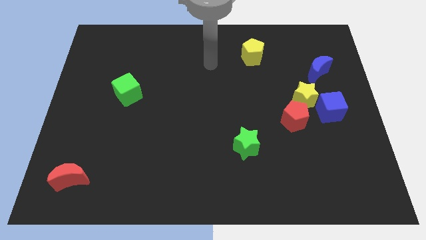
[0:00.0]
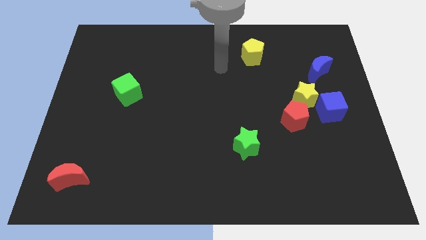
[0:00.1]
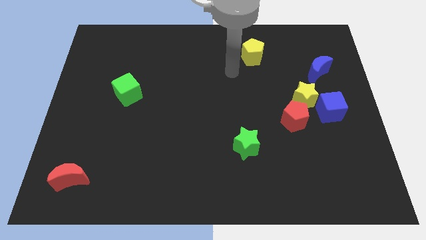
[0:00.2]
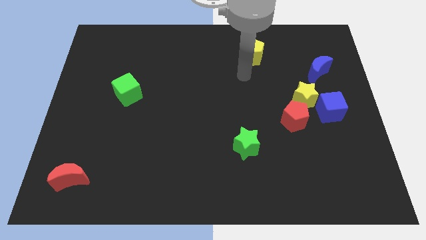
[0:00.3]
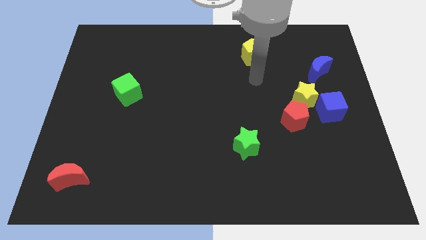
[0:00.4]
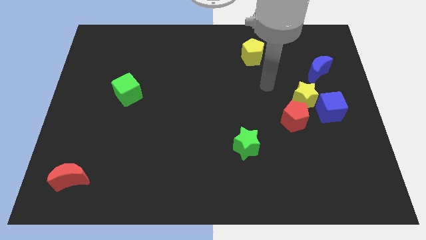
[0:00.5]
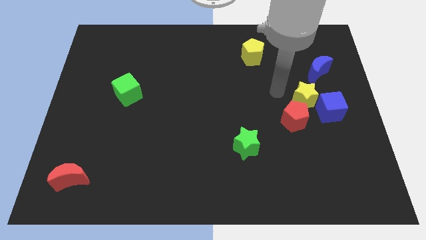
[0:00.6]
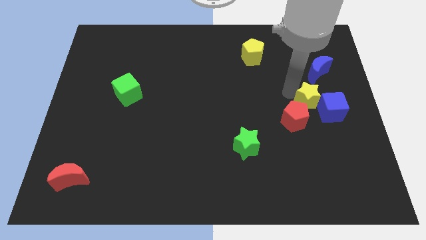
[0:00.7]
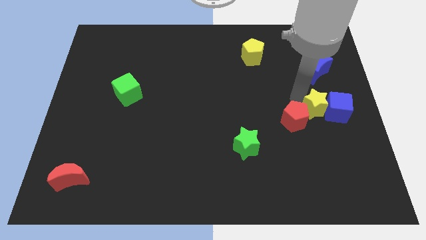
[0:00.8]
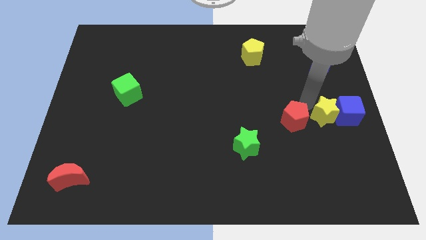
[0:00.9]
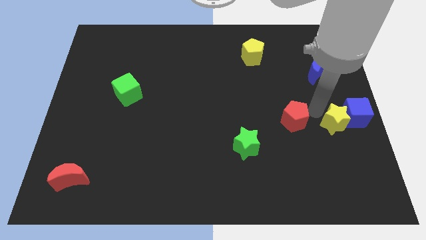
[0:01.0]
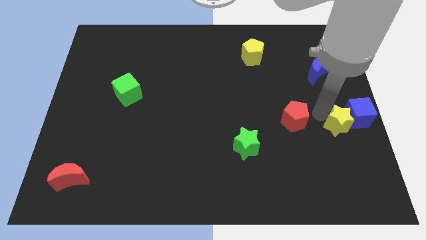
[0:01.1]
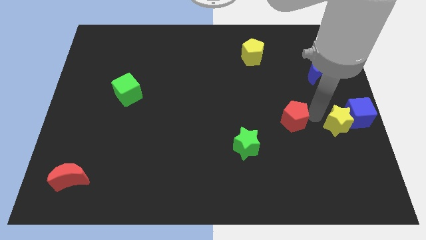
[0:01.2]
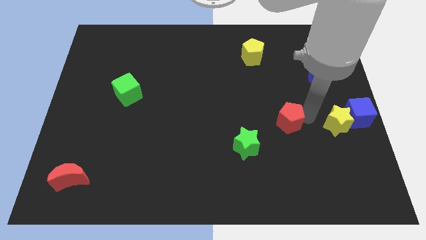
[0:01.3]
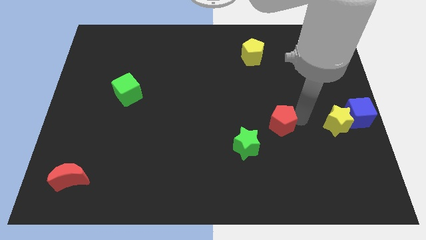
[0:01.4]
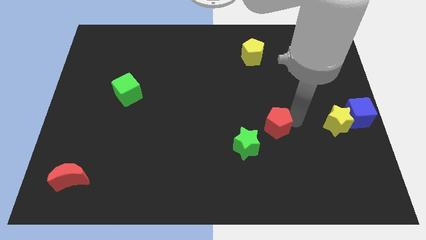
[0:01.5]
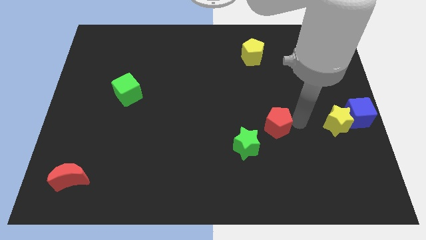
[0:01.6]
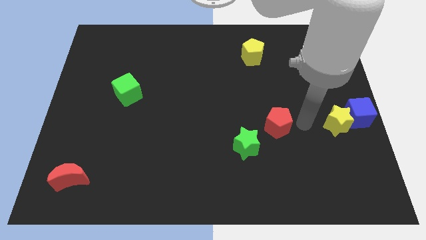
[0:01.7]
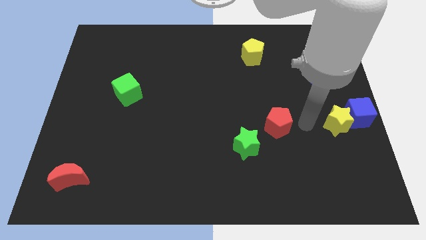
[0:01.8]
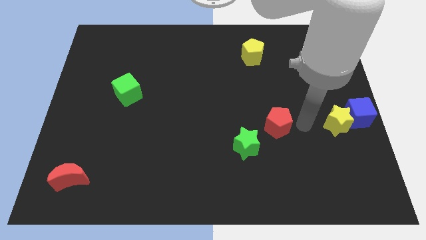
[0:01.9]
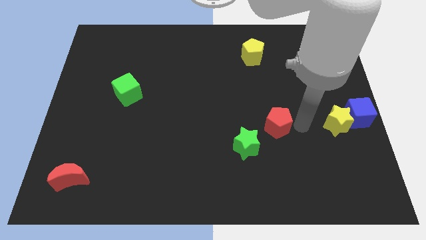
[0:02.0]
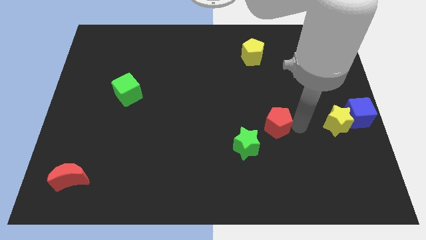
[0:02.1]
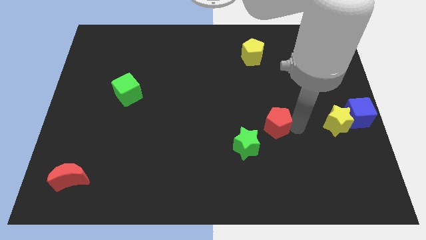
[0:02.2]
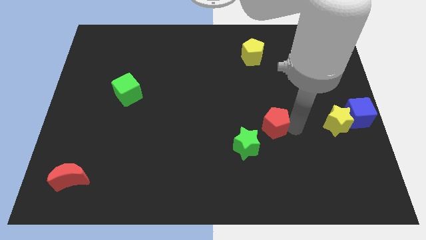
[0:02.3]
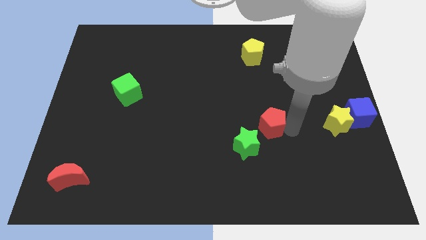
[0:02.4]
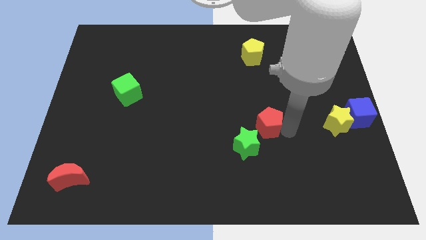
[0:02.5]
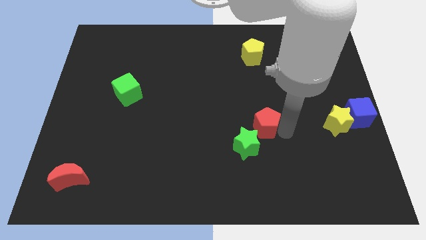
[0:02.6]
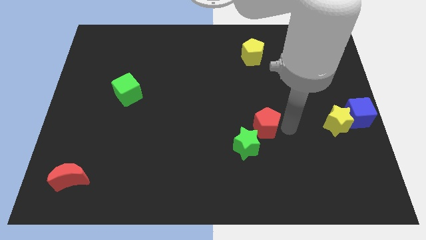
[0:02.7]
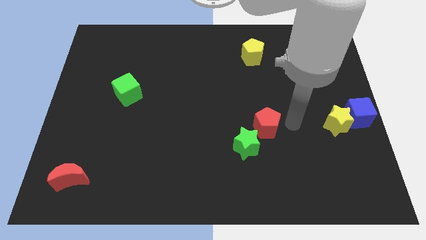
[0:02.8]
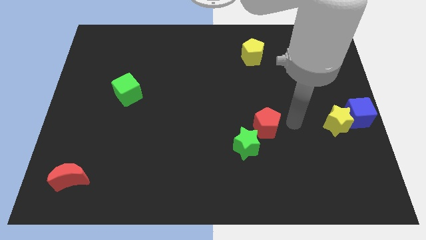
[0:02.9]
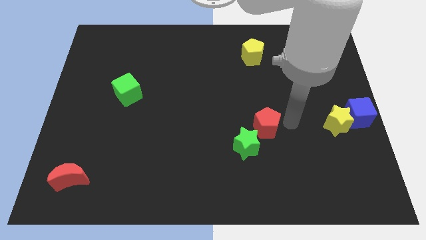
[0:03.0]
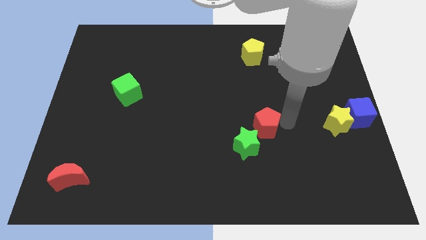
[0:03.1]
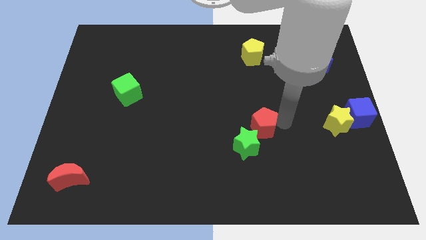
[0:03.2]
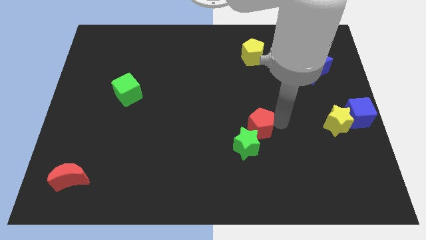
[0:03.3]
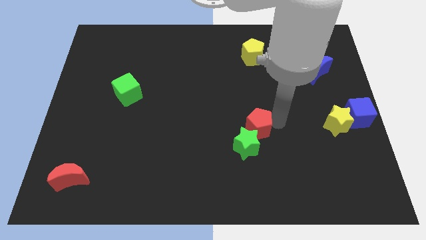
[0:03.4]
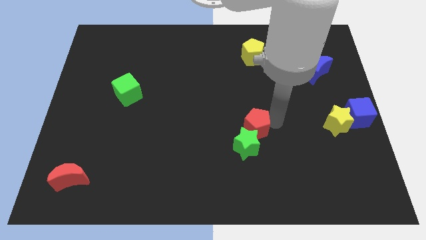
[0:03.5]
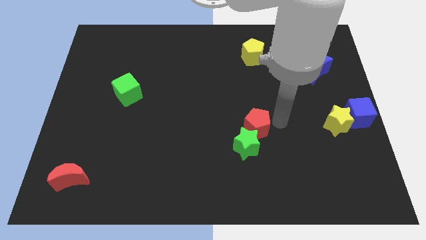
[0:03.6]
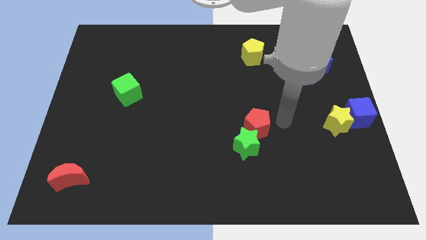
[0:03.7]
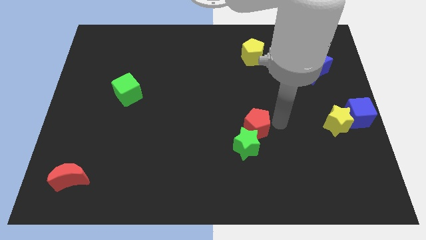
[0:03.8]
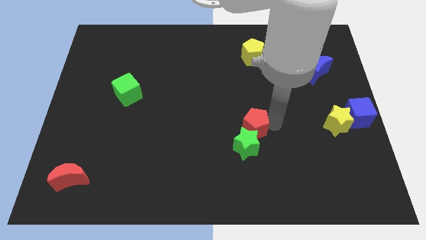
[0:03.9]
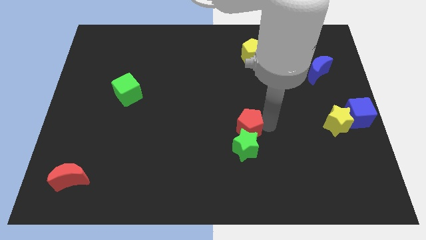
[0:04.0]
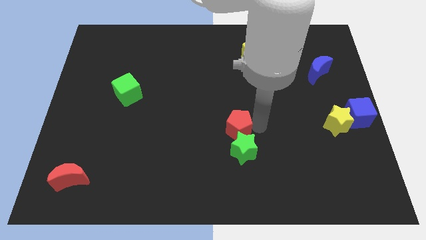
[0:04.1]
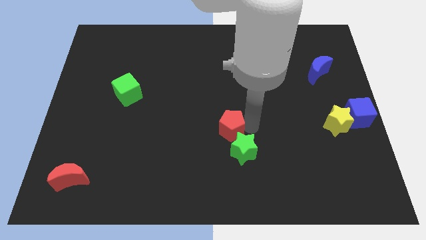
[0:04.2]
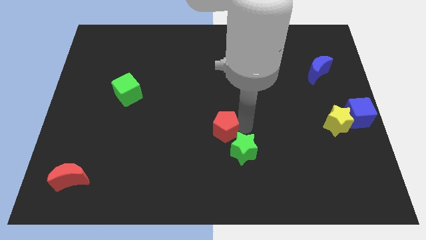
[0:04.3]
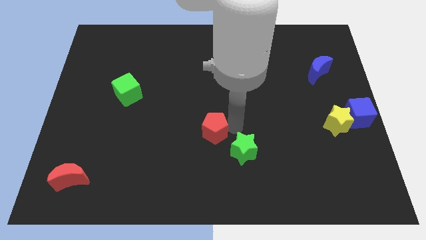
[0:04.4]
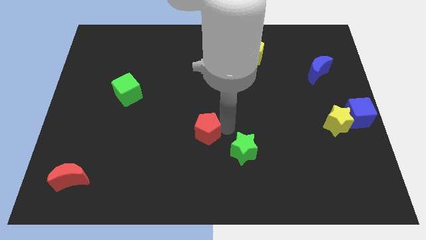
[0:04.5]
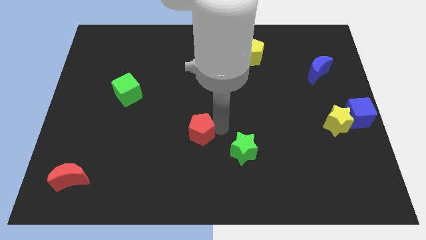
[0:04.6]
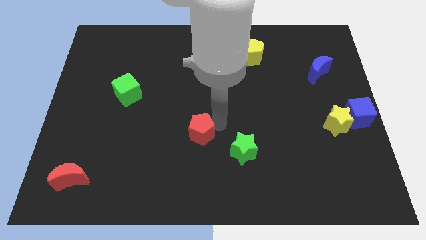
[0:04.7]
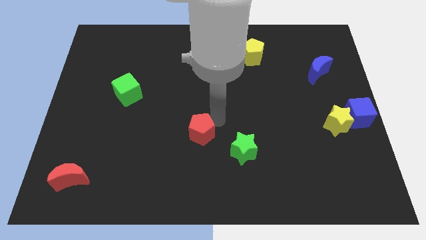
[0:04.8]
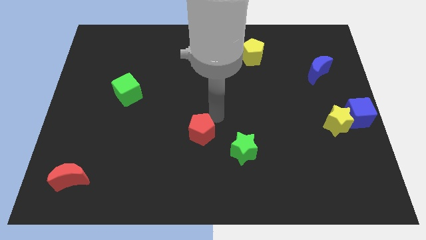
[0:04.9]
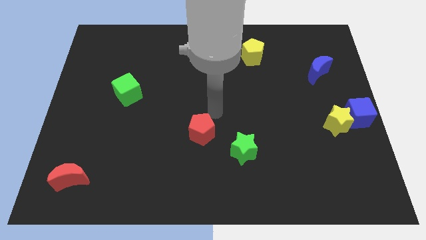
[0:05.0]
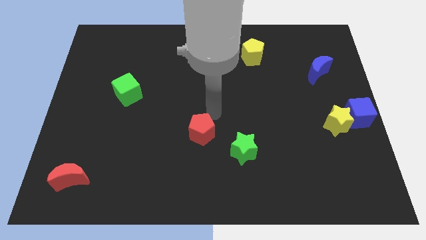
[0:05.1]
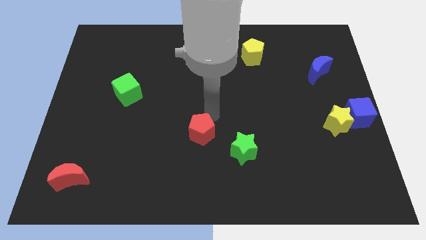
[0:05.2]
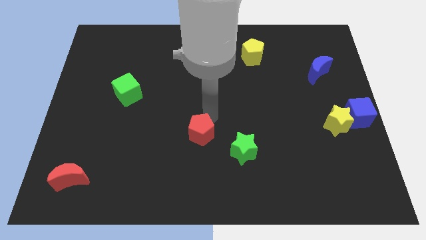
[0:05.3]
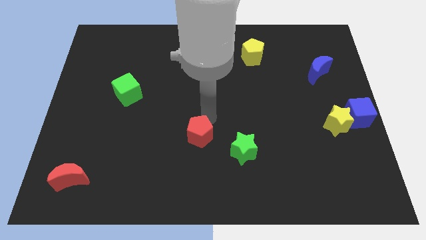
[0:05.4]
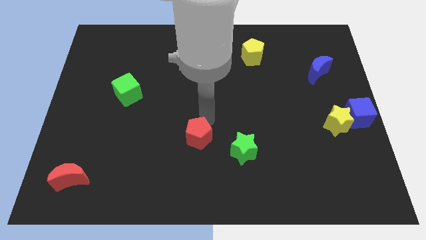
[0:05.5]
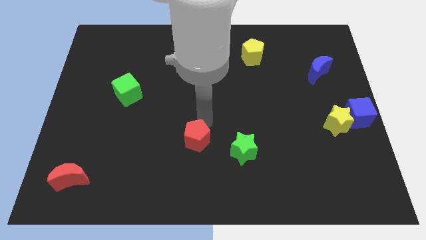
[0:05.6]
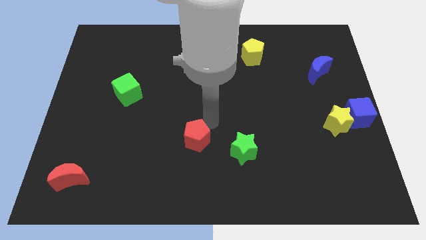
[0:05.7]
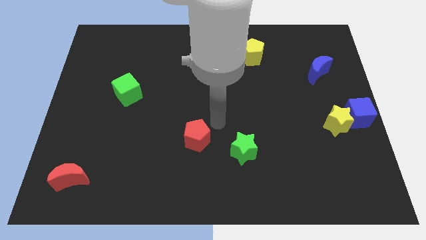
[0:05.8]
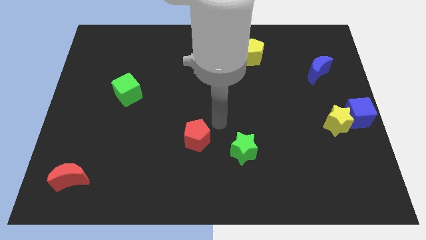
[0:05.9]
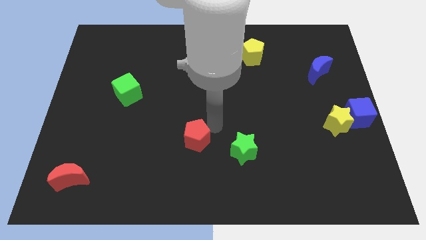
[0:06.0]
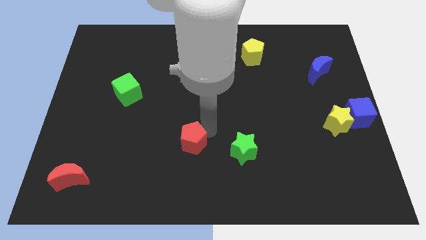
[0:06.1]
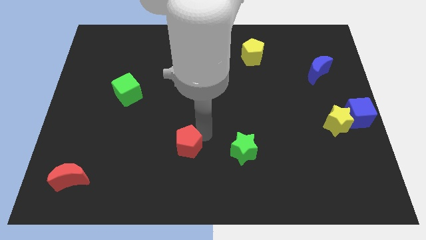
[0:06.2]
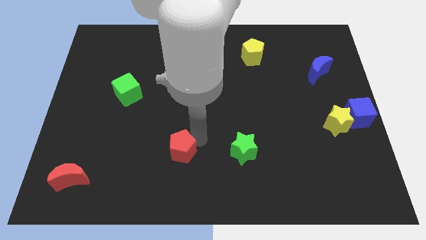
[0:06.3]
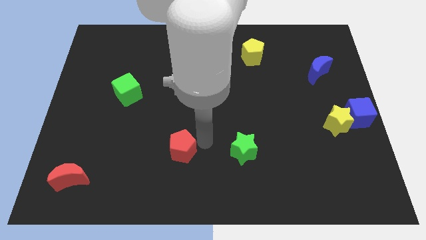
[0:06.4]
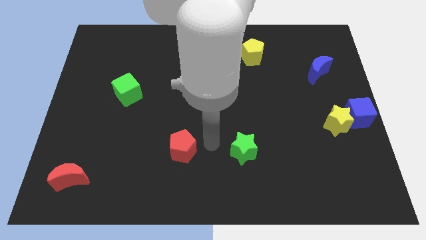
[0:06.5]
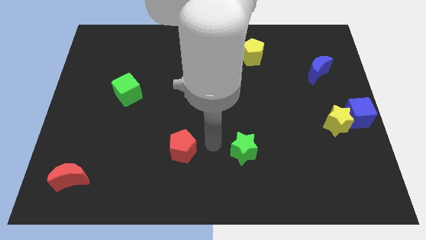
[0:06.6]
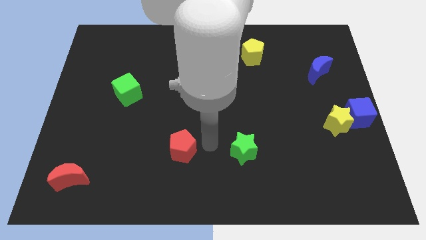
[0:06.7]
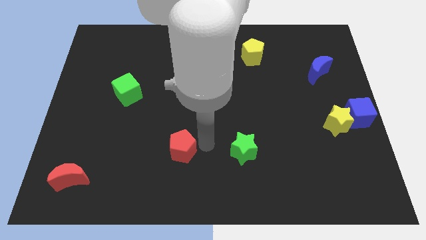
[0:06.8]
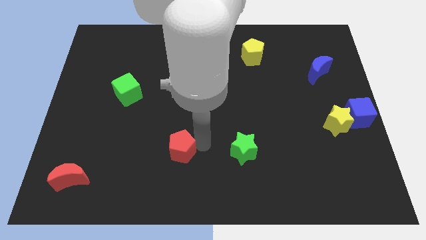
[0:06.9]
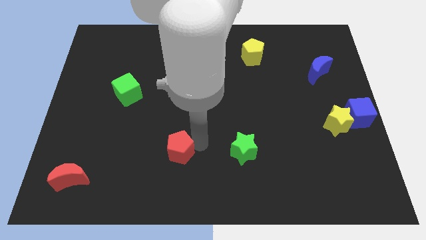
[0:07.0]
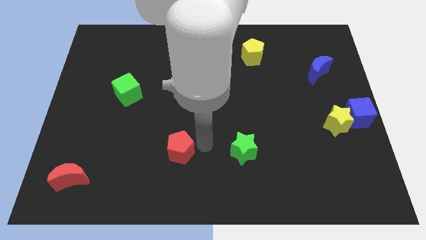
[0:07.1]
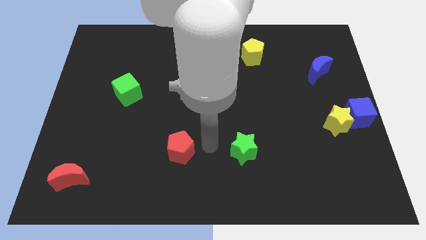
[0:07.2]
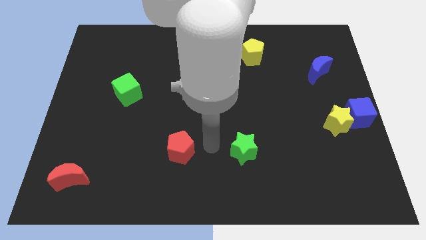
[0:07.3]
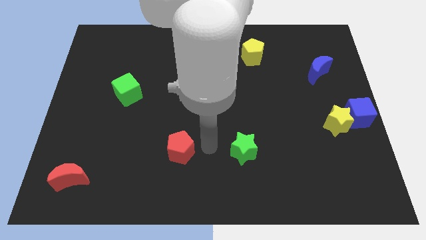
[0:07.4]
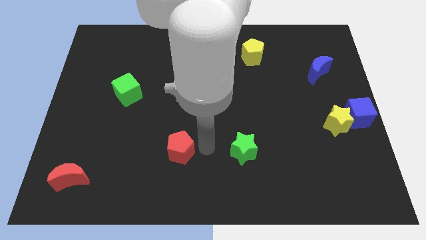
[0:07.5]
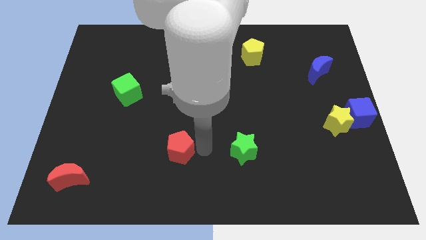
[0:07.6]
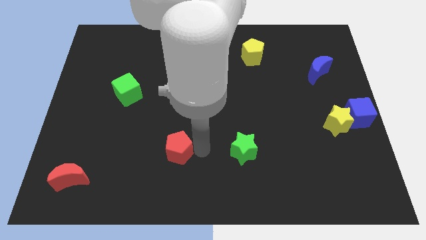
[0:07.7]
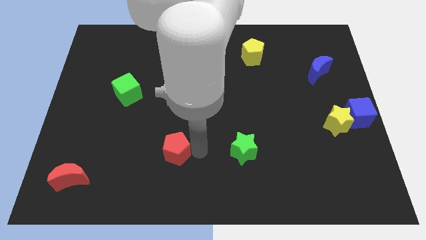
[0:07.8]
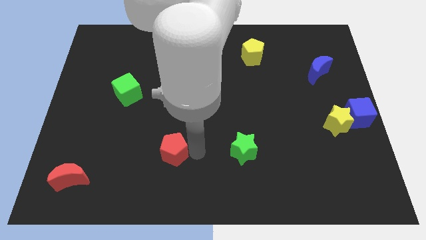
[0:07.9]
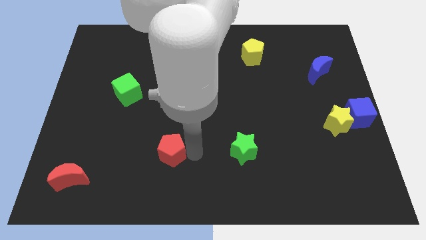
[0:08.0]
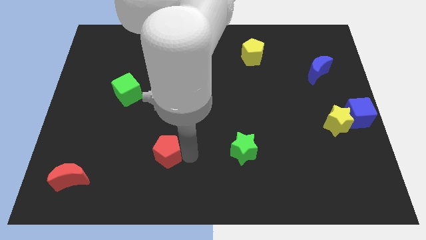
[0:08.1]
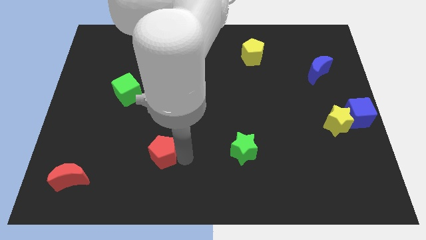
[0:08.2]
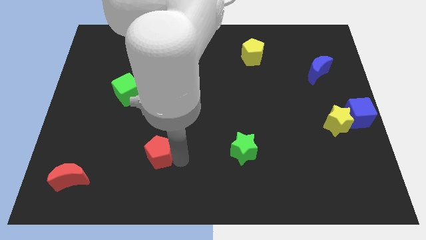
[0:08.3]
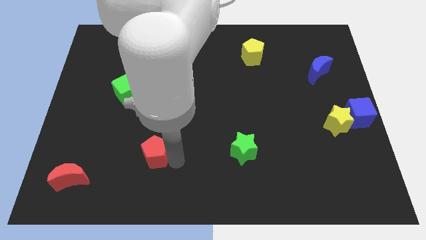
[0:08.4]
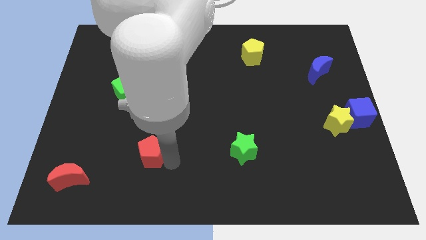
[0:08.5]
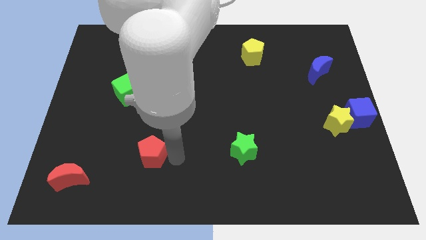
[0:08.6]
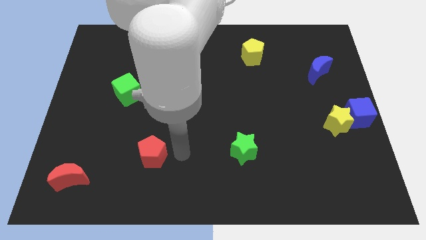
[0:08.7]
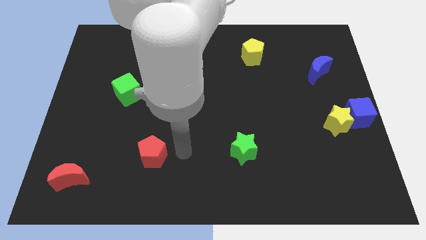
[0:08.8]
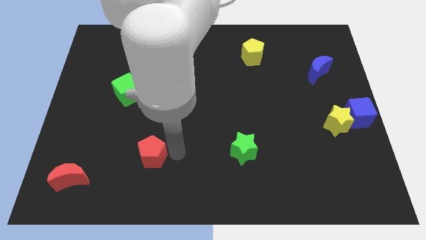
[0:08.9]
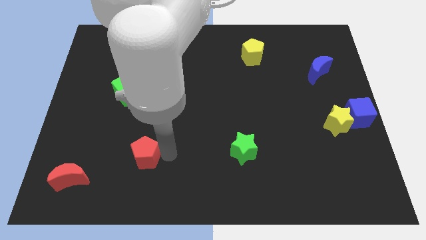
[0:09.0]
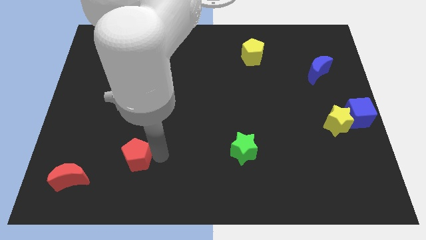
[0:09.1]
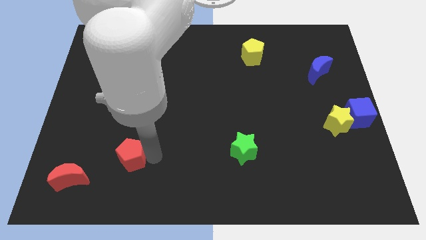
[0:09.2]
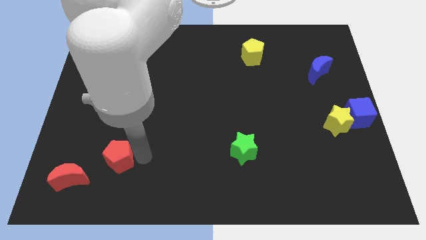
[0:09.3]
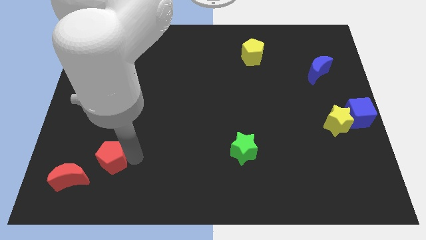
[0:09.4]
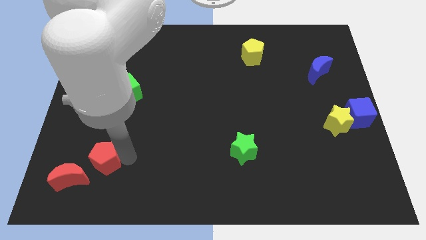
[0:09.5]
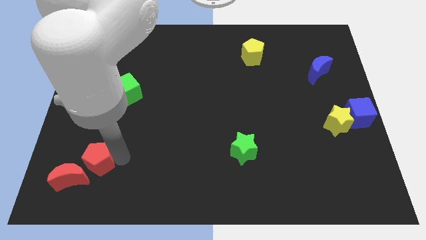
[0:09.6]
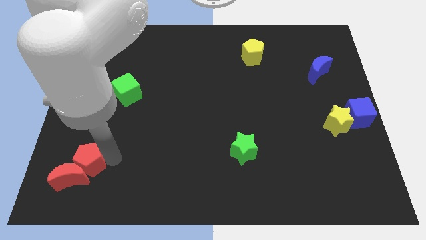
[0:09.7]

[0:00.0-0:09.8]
push the red pentagon next to the red moon
